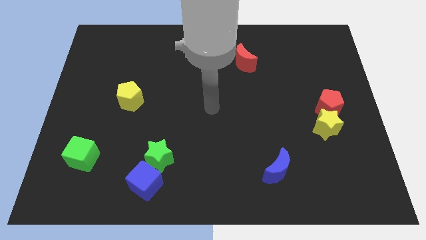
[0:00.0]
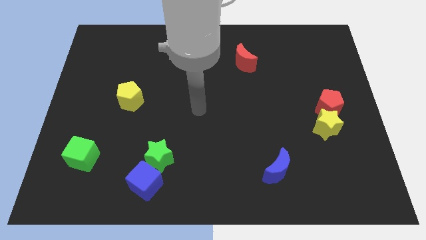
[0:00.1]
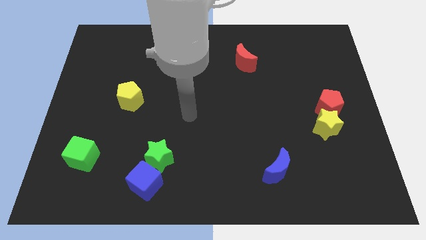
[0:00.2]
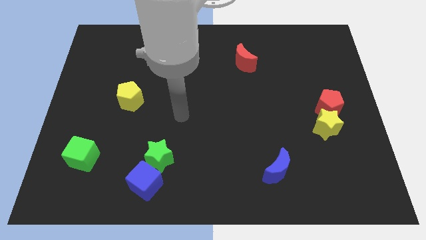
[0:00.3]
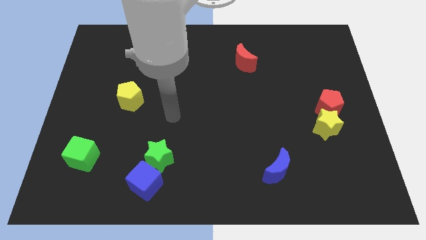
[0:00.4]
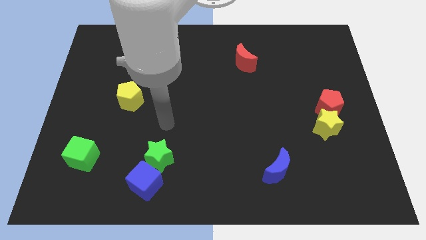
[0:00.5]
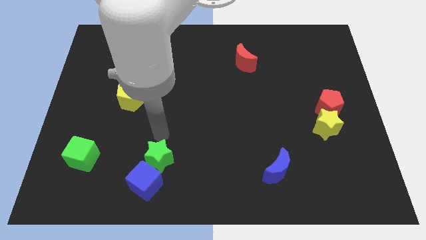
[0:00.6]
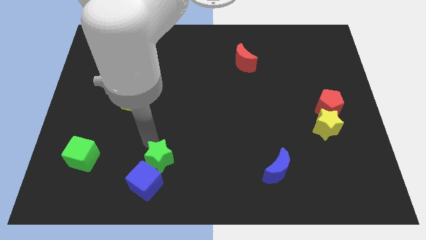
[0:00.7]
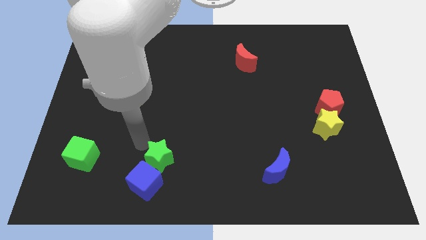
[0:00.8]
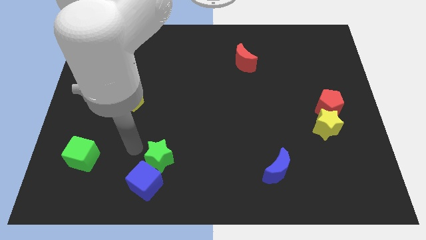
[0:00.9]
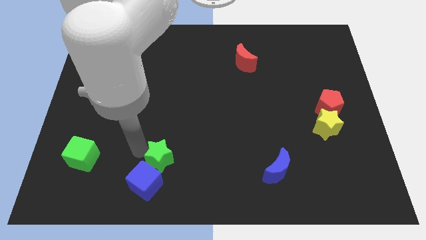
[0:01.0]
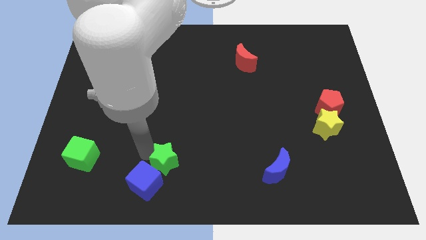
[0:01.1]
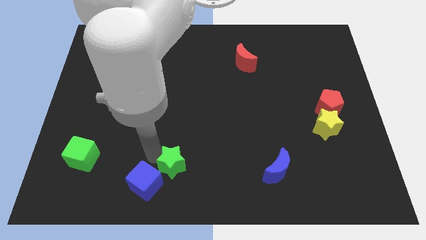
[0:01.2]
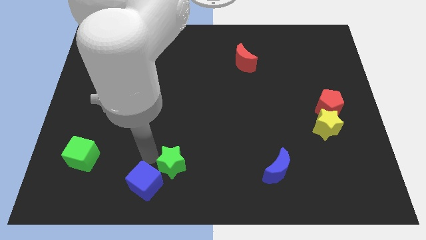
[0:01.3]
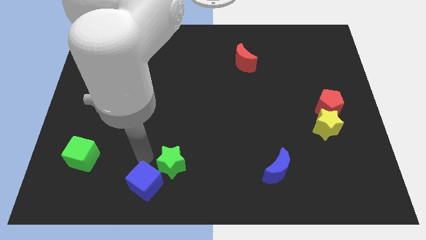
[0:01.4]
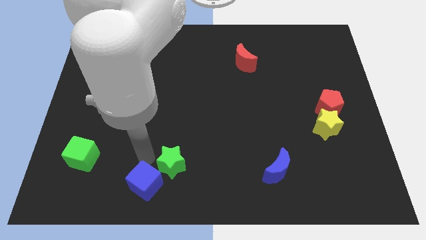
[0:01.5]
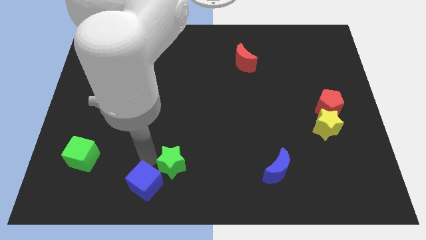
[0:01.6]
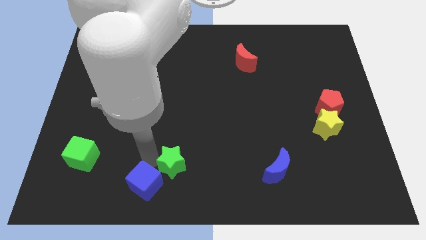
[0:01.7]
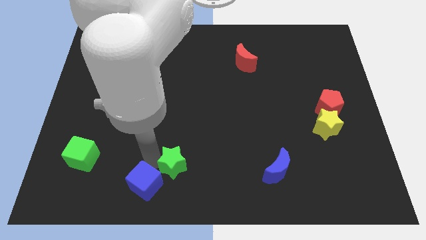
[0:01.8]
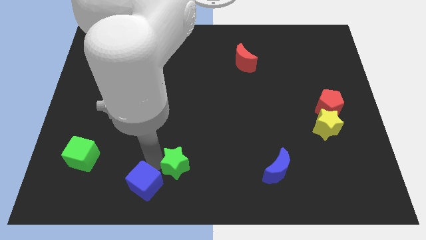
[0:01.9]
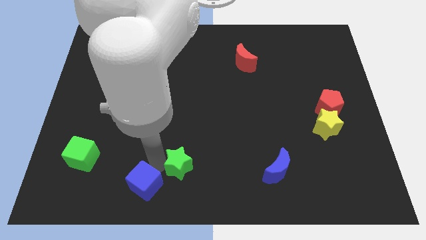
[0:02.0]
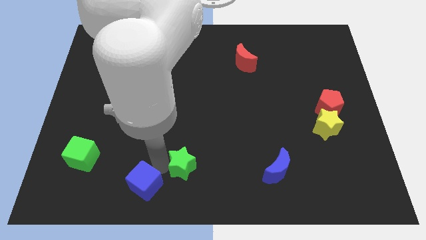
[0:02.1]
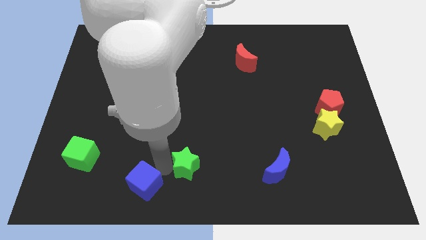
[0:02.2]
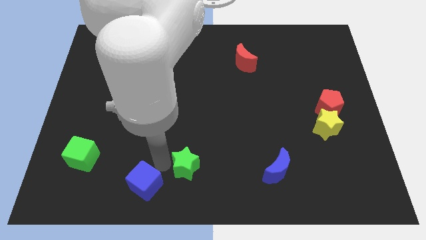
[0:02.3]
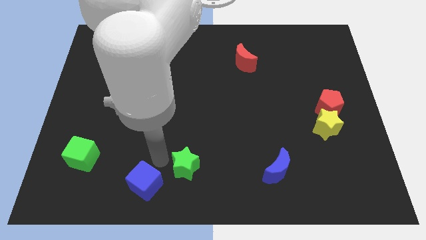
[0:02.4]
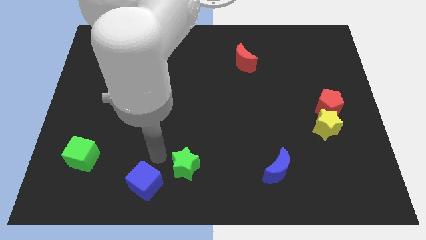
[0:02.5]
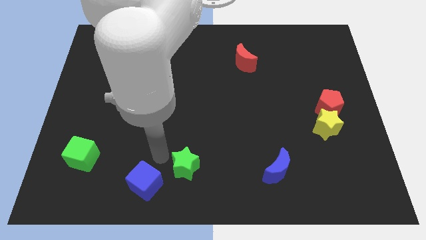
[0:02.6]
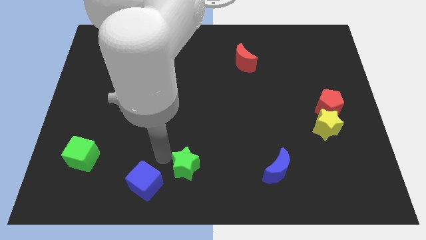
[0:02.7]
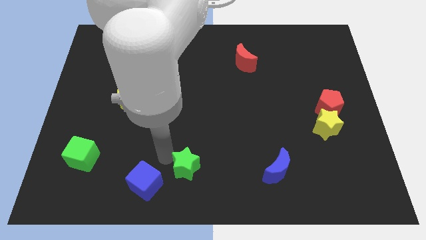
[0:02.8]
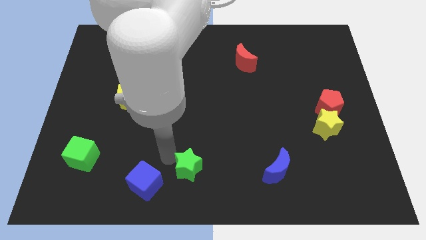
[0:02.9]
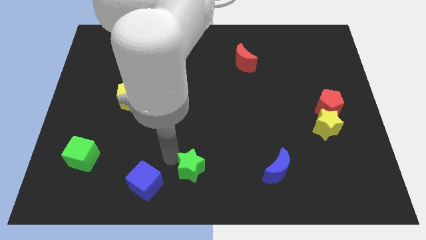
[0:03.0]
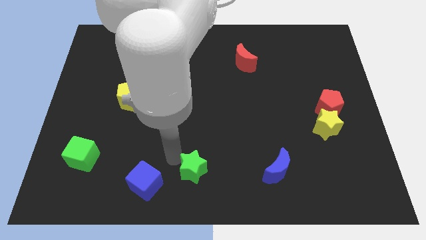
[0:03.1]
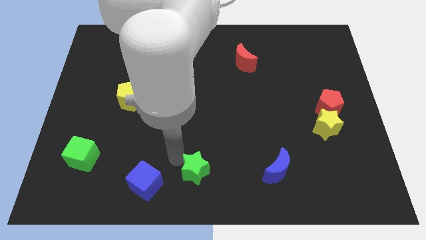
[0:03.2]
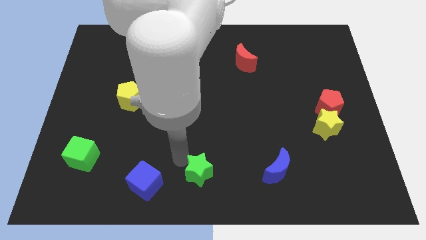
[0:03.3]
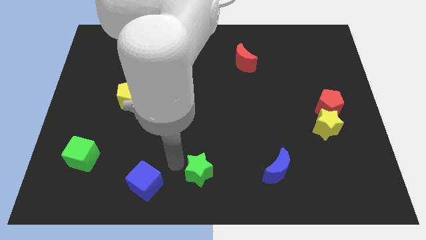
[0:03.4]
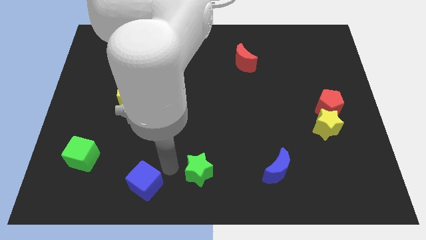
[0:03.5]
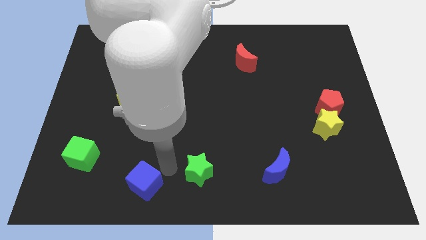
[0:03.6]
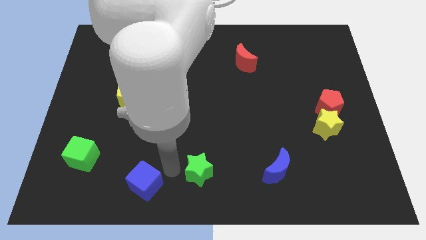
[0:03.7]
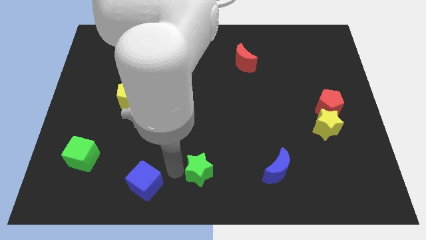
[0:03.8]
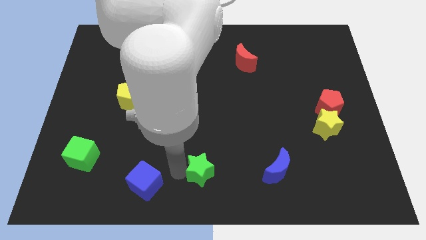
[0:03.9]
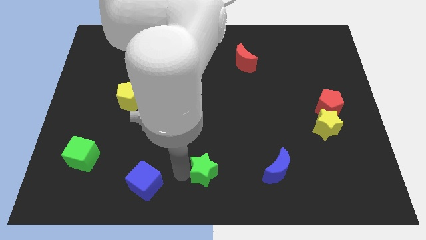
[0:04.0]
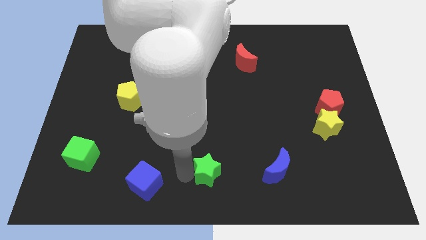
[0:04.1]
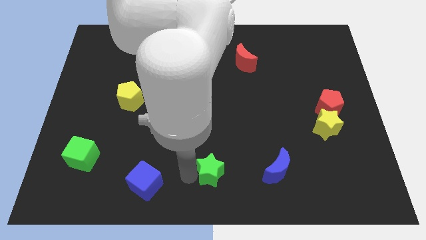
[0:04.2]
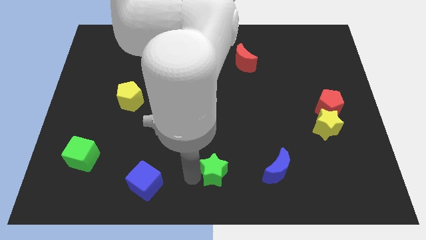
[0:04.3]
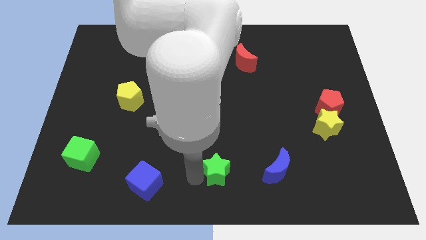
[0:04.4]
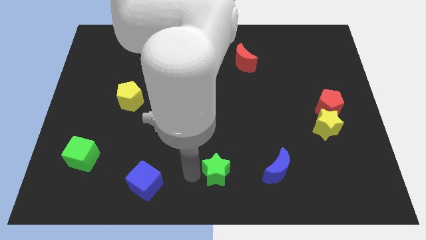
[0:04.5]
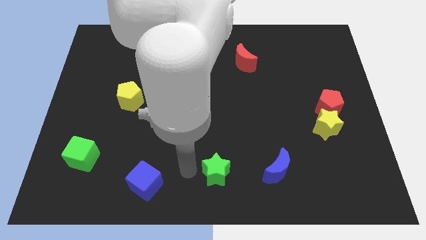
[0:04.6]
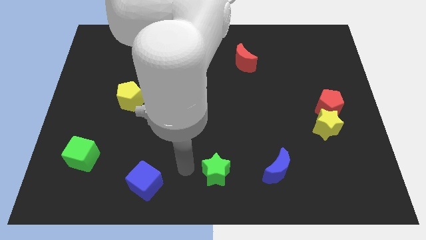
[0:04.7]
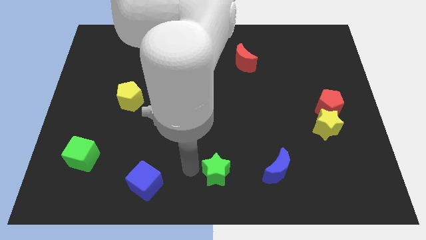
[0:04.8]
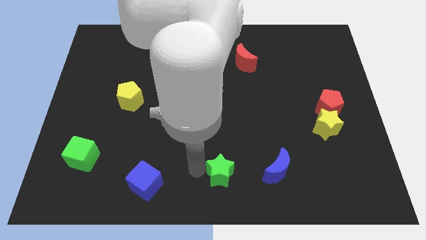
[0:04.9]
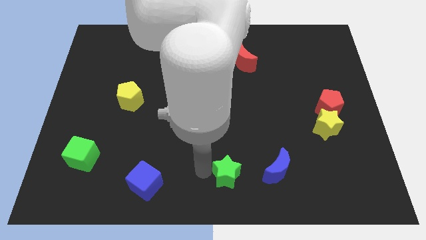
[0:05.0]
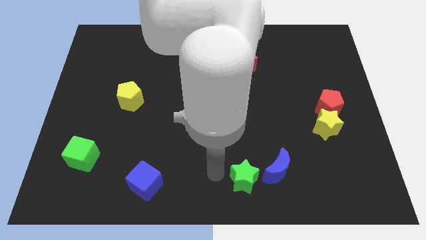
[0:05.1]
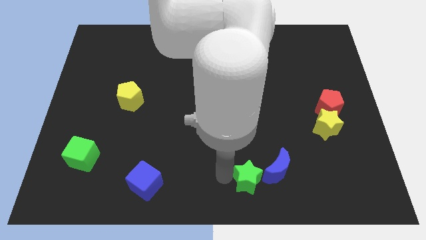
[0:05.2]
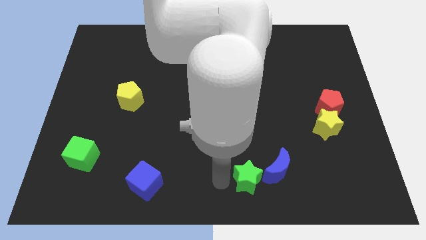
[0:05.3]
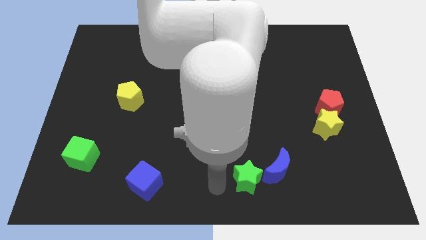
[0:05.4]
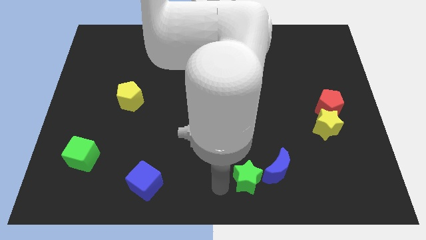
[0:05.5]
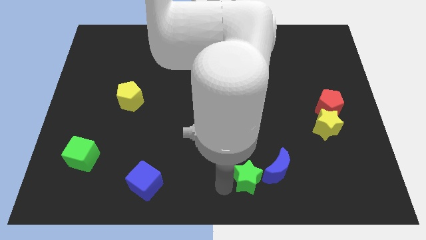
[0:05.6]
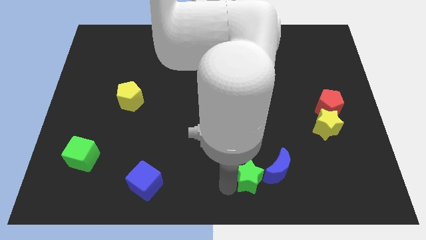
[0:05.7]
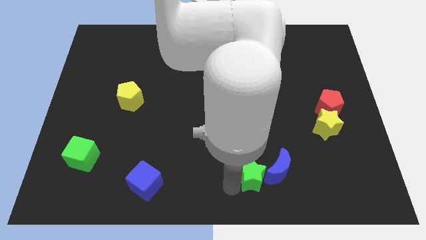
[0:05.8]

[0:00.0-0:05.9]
put the green star towards the blue moon

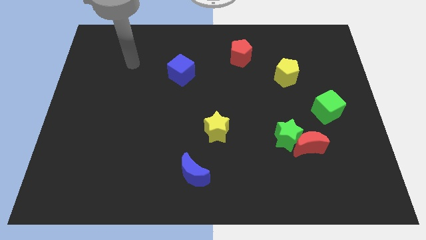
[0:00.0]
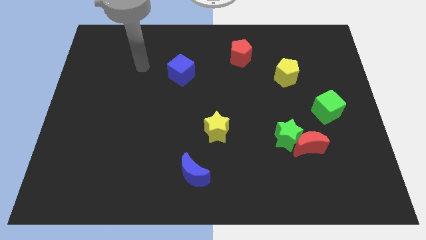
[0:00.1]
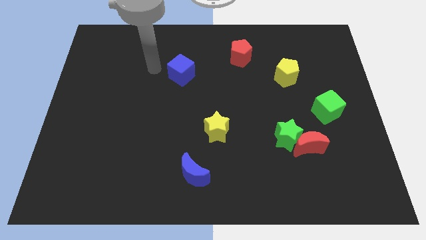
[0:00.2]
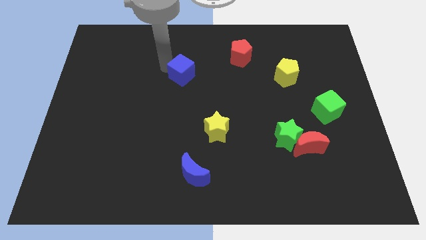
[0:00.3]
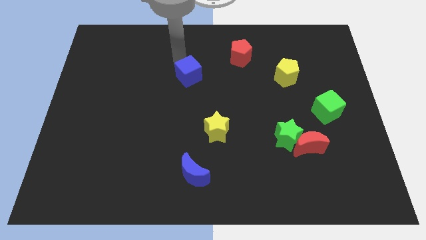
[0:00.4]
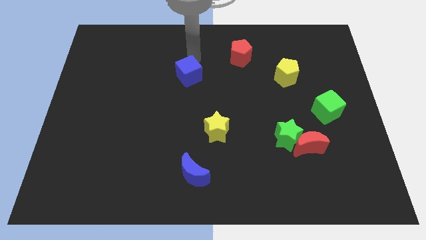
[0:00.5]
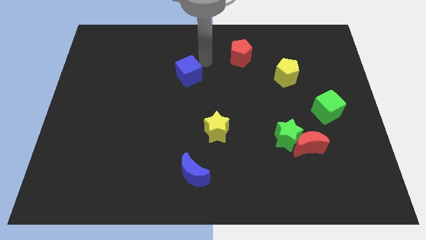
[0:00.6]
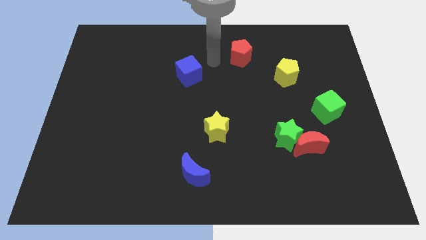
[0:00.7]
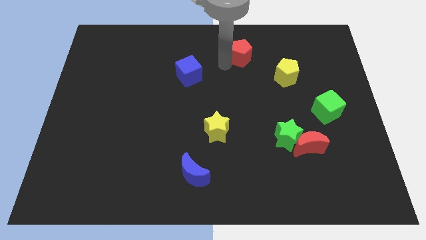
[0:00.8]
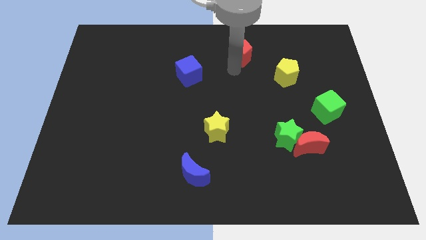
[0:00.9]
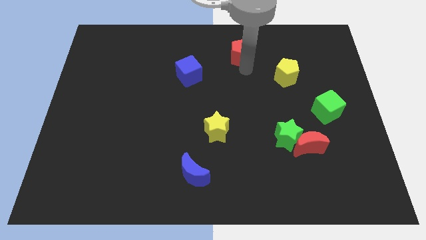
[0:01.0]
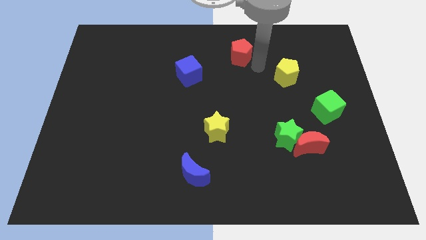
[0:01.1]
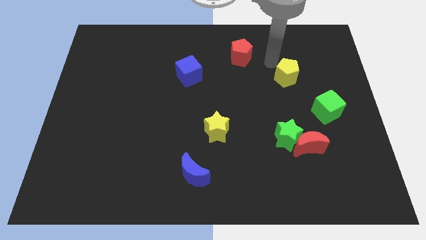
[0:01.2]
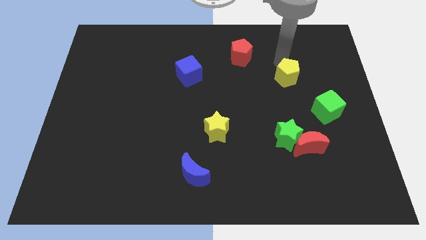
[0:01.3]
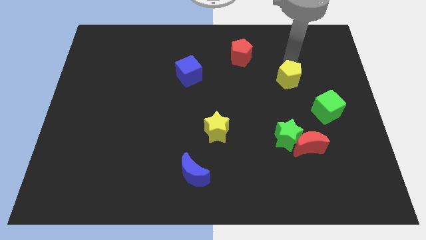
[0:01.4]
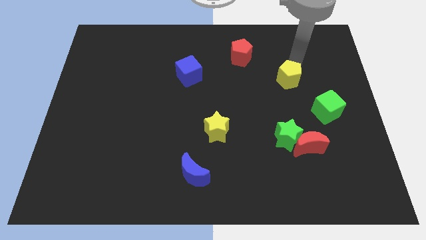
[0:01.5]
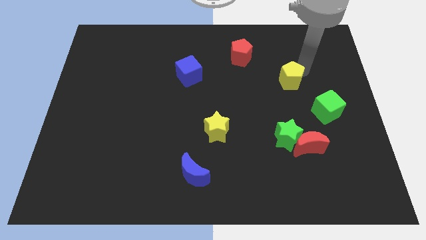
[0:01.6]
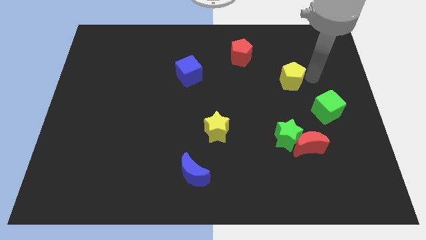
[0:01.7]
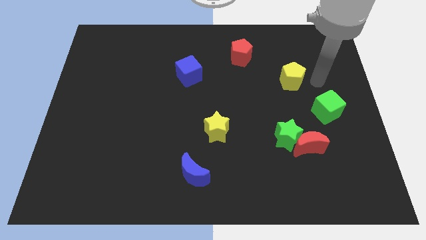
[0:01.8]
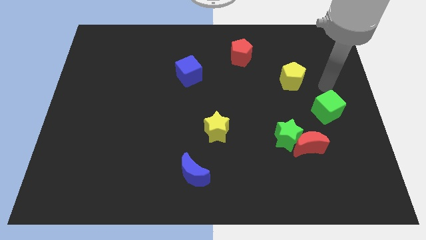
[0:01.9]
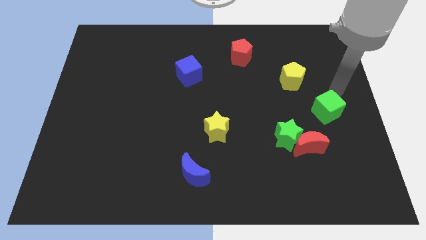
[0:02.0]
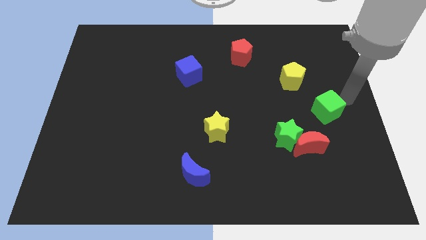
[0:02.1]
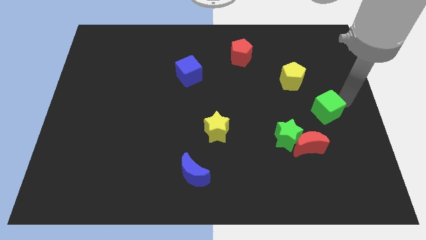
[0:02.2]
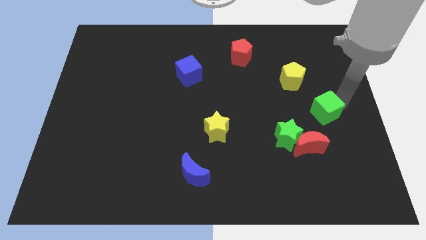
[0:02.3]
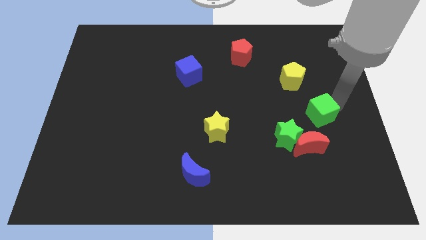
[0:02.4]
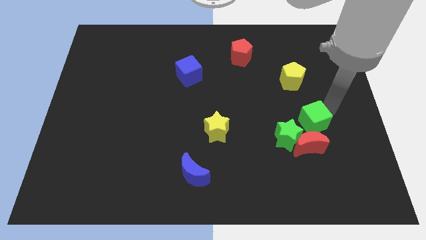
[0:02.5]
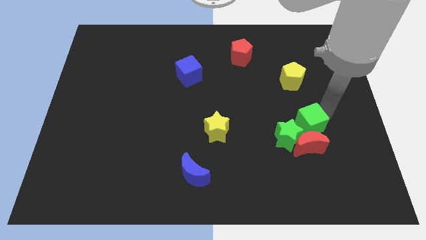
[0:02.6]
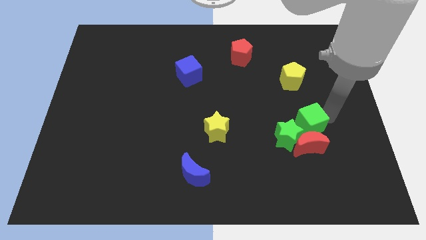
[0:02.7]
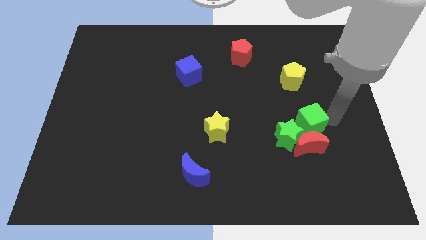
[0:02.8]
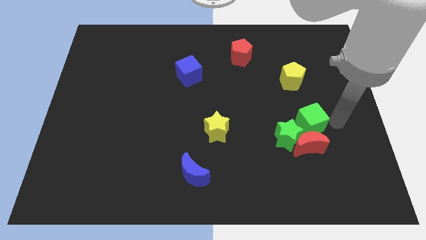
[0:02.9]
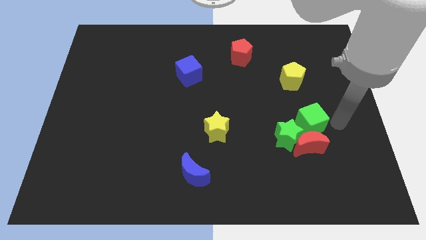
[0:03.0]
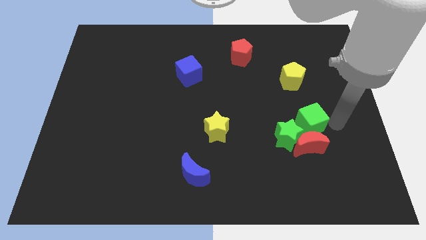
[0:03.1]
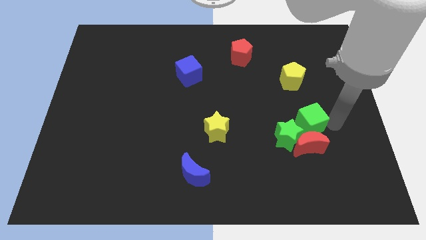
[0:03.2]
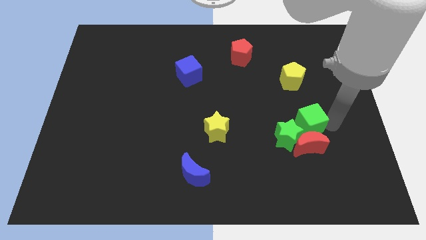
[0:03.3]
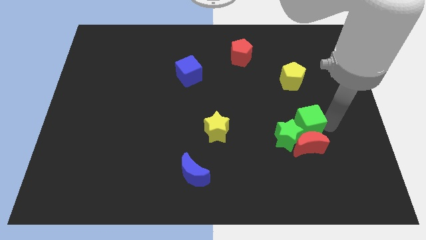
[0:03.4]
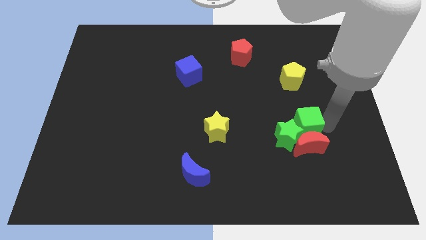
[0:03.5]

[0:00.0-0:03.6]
put the green cube next to the green star
